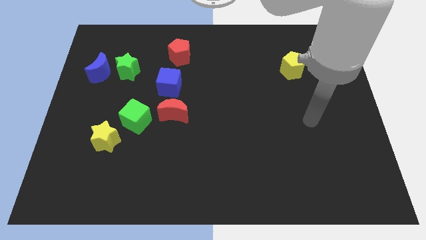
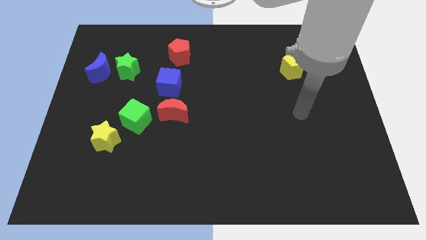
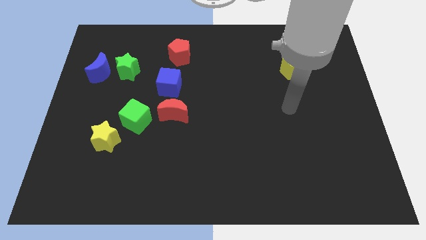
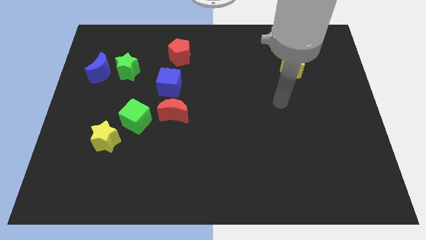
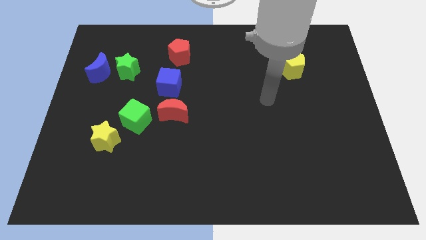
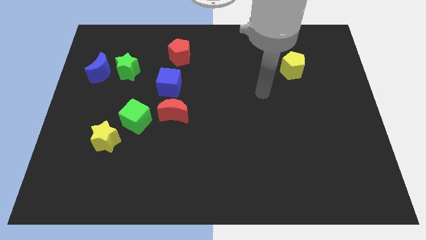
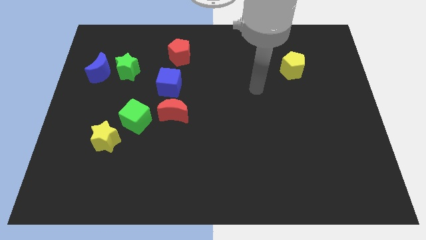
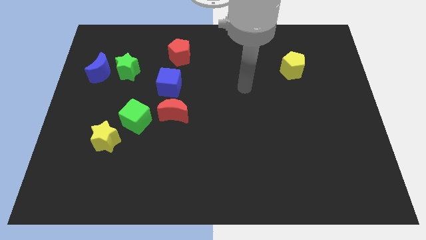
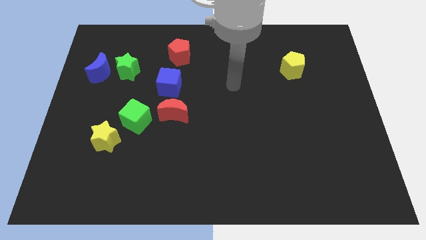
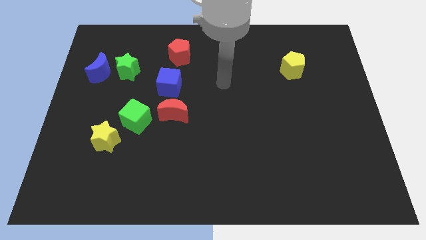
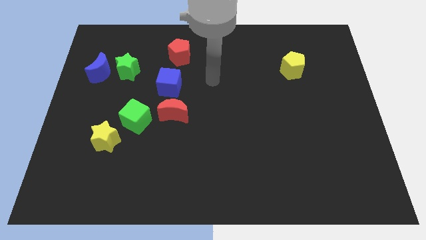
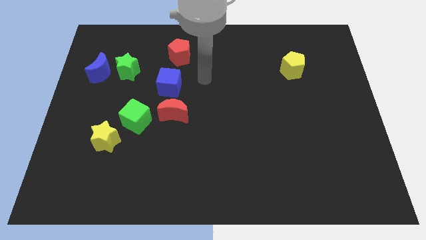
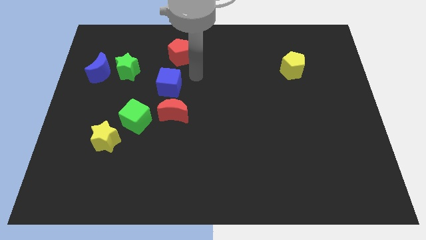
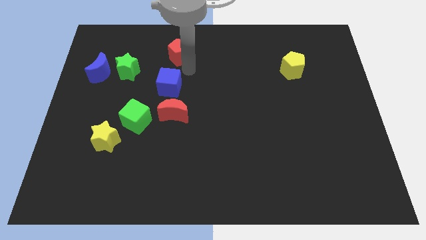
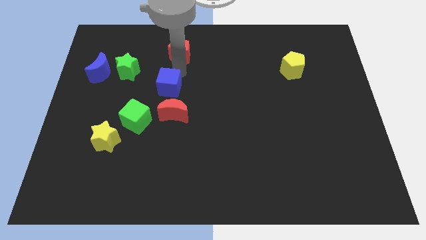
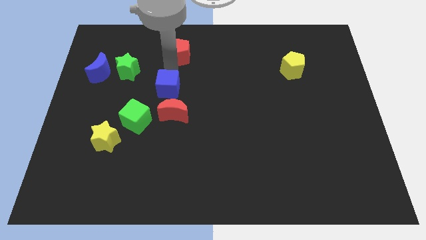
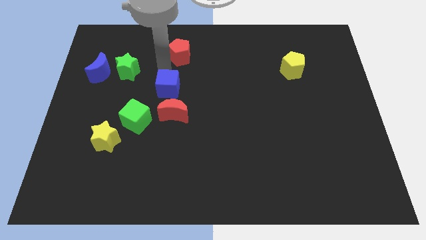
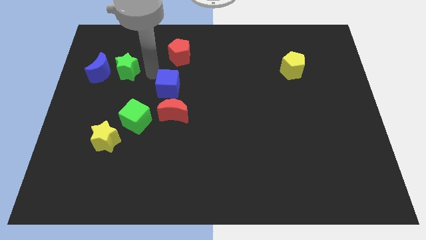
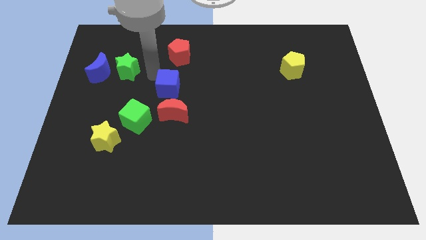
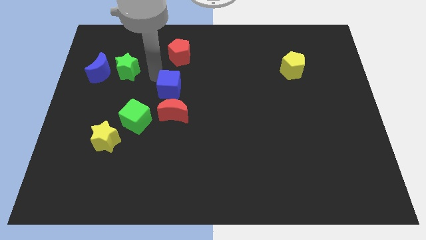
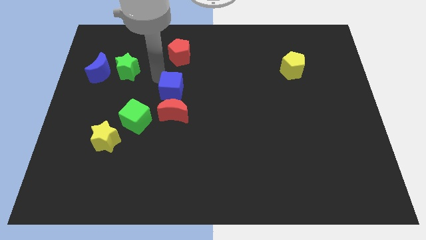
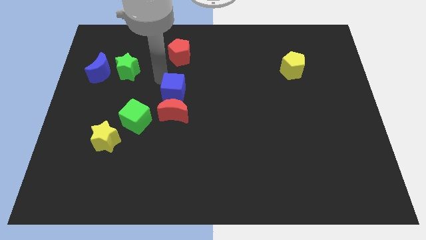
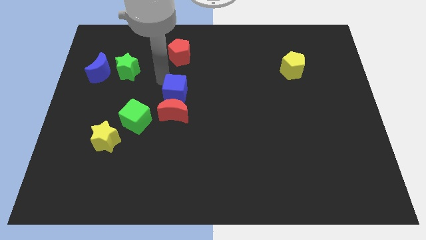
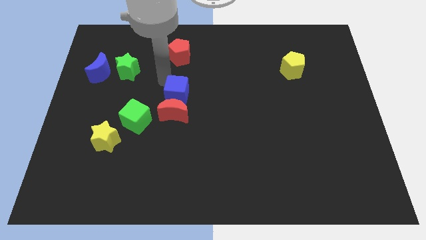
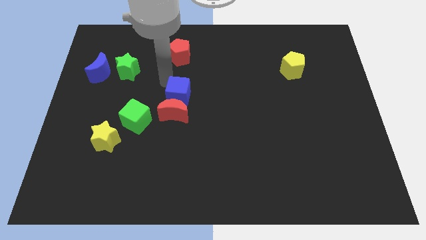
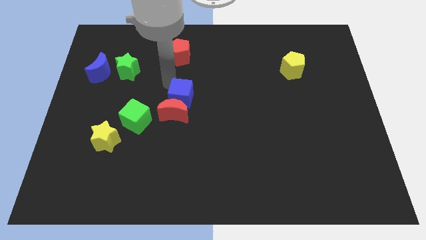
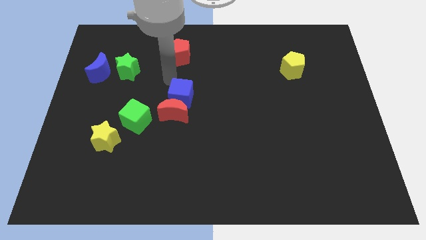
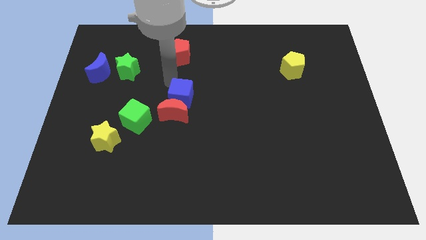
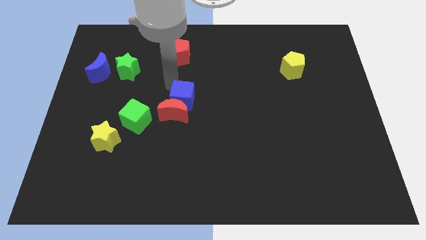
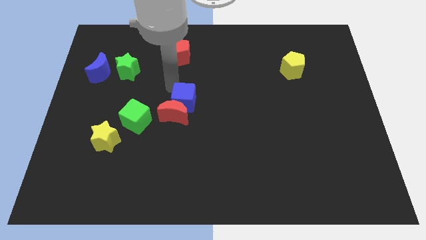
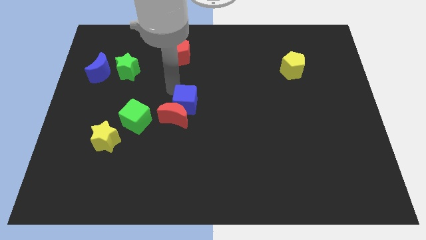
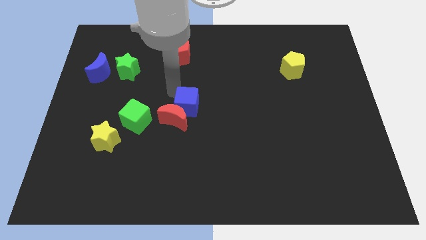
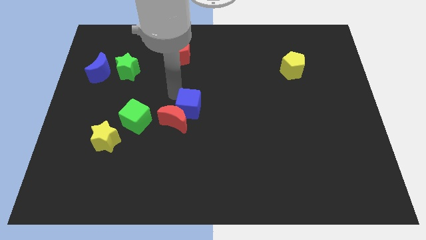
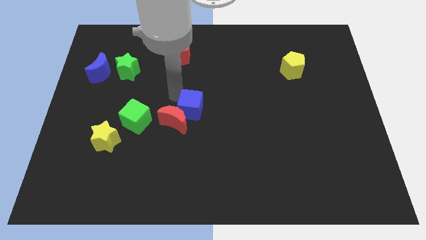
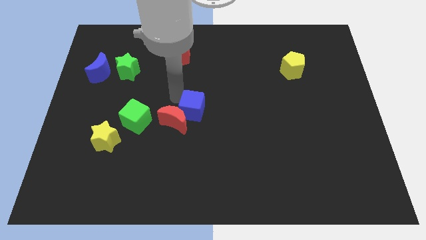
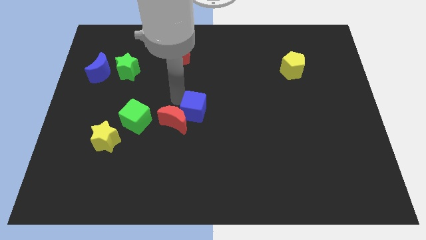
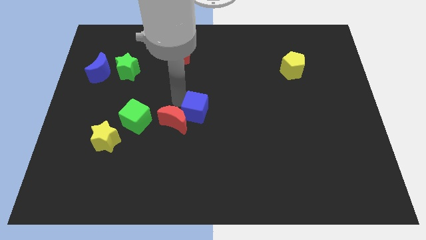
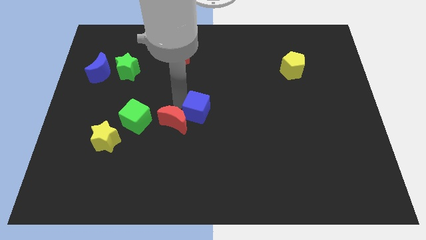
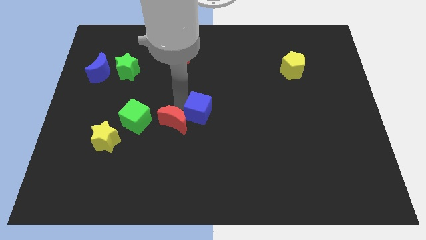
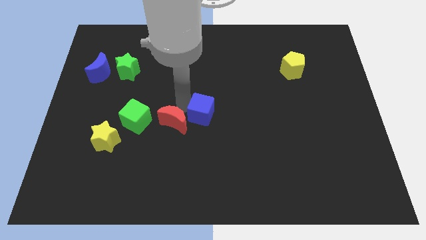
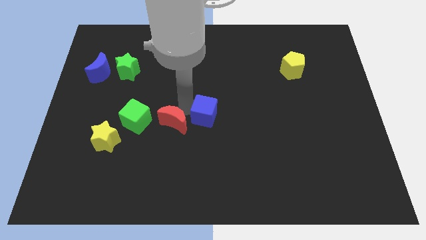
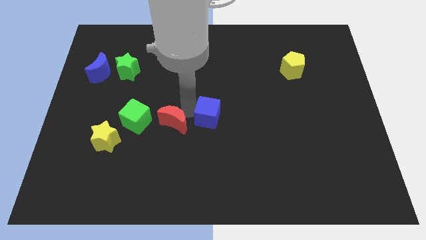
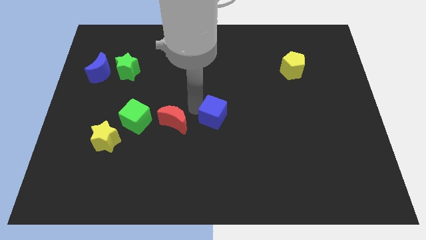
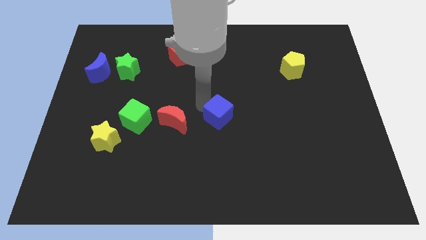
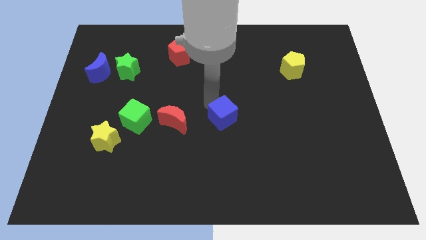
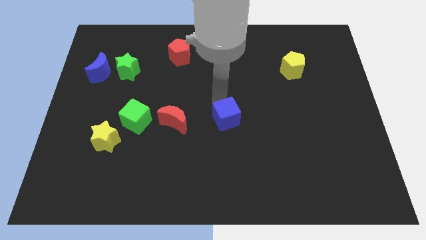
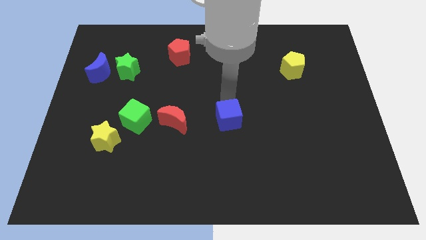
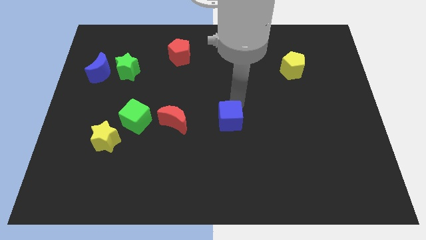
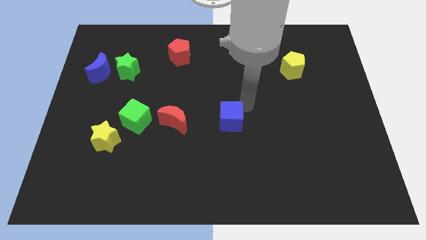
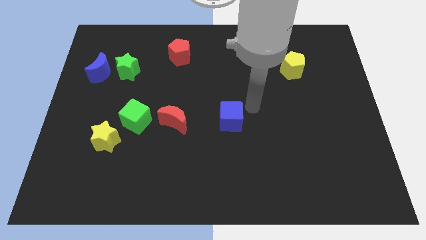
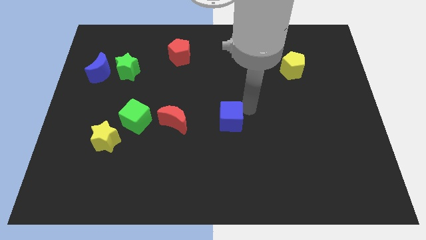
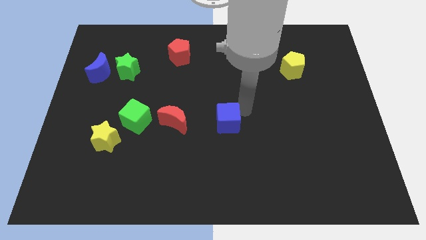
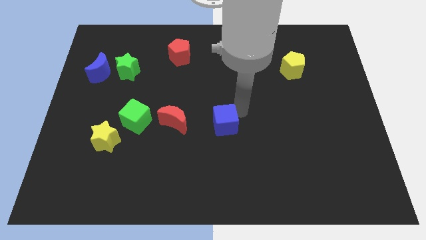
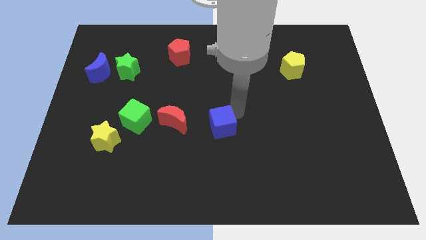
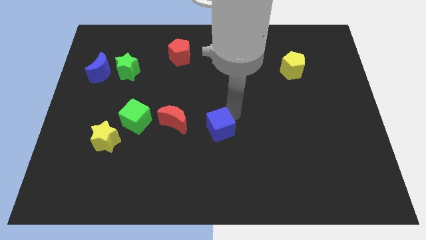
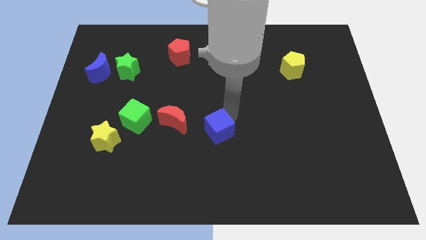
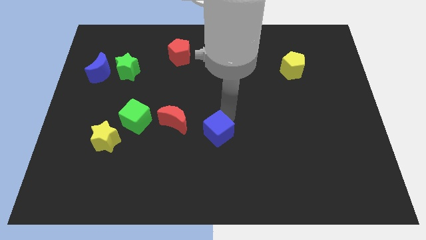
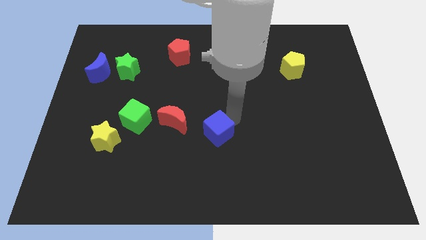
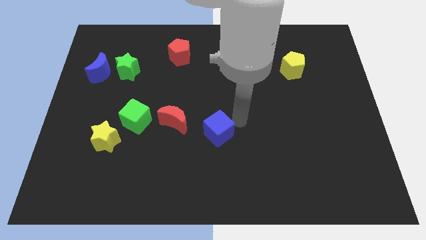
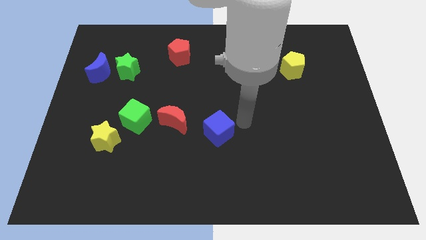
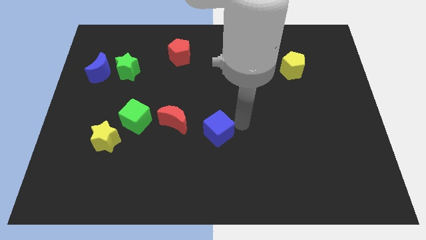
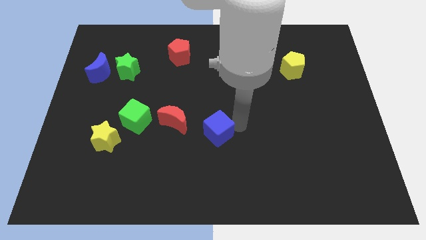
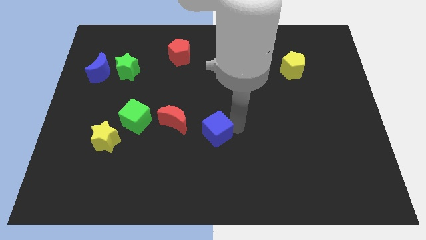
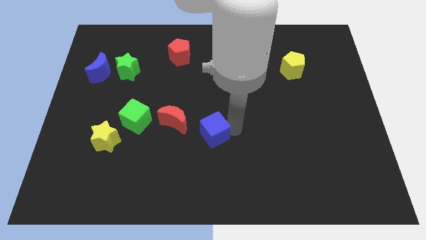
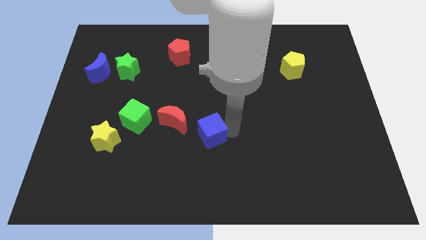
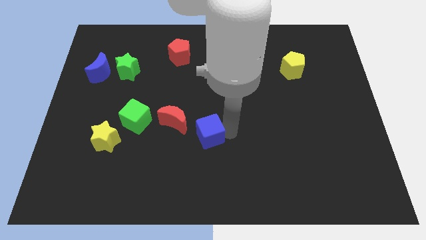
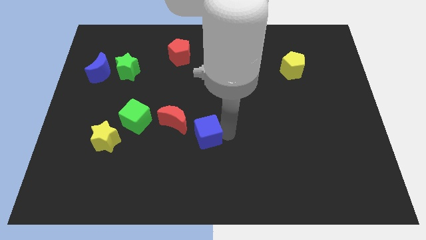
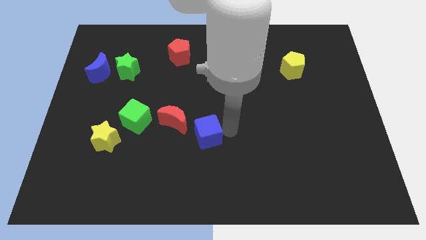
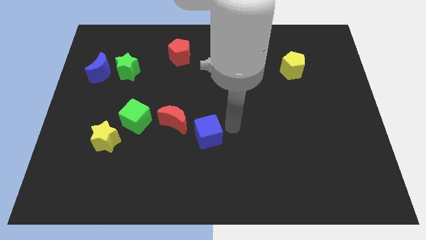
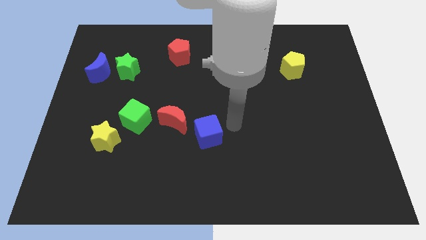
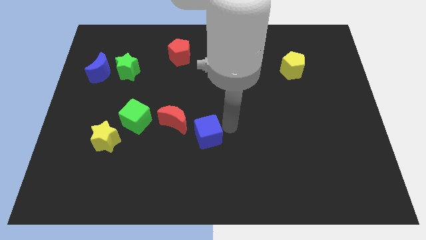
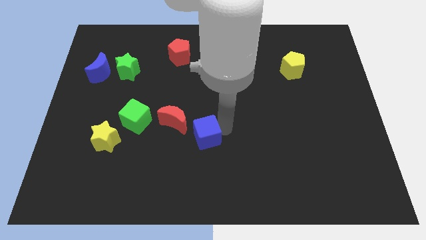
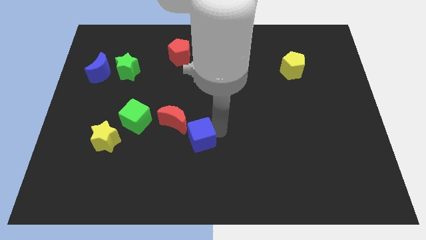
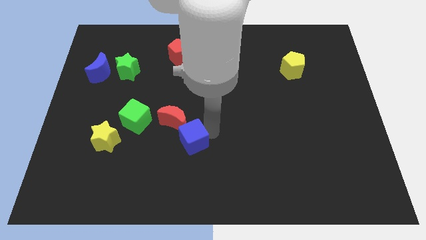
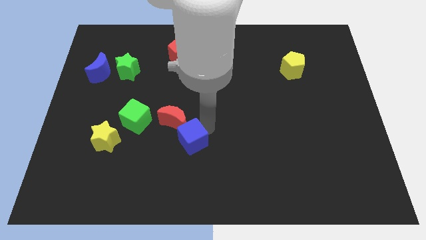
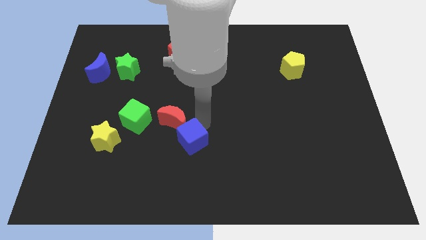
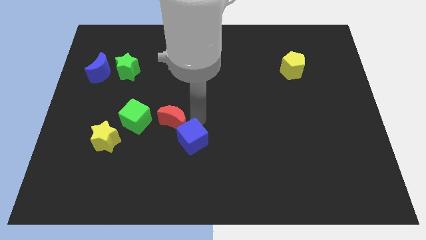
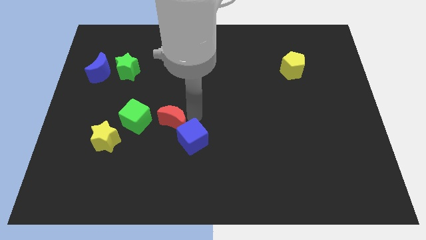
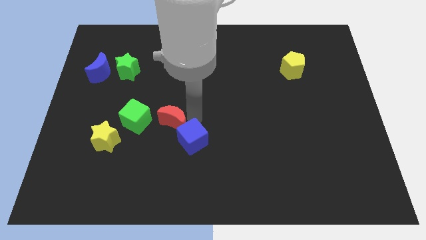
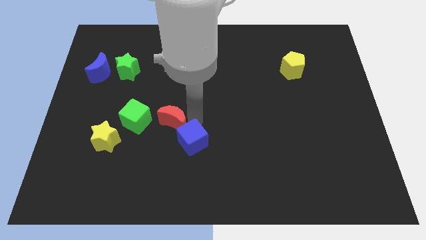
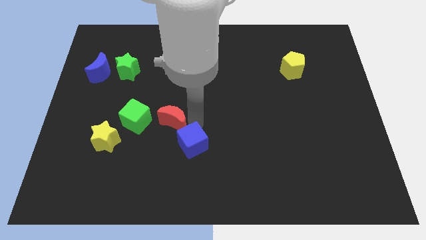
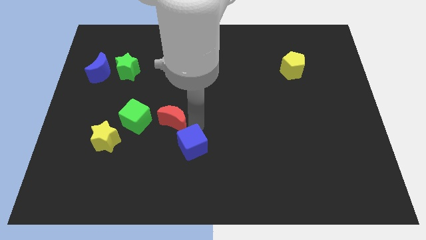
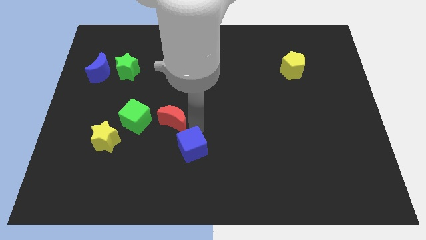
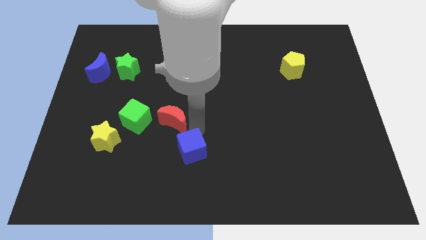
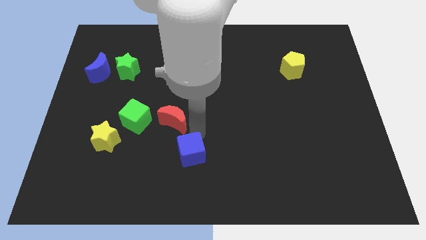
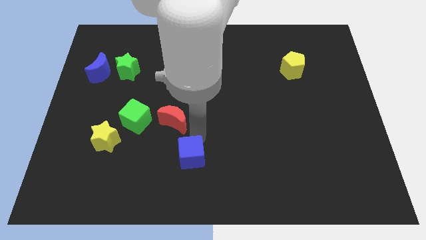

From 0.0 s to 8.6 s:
slide the blue cube to the bottom
